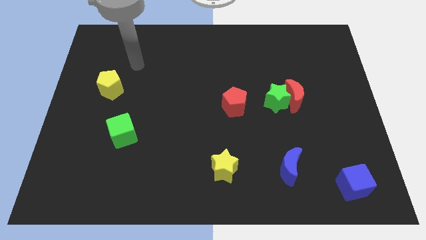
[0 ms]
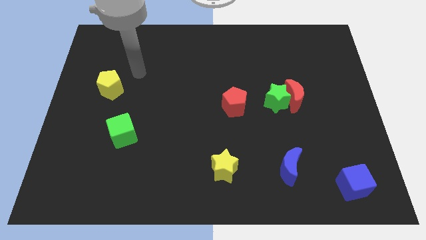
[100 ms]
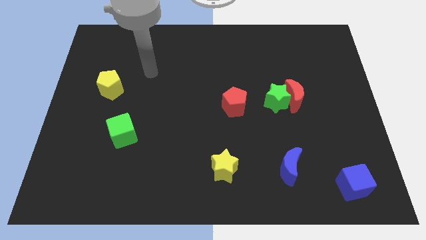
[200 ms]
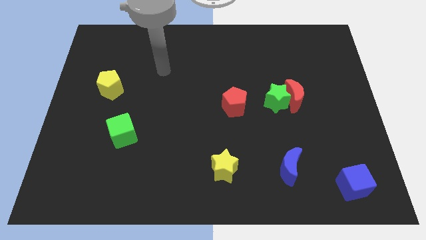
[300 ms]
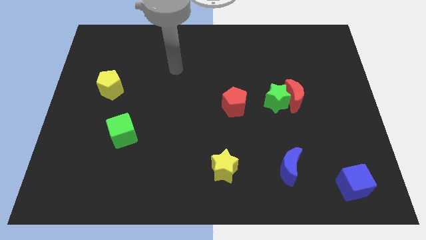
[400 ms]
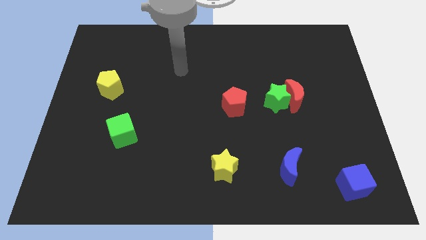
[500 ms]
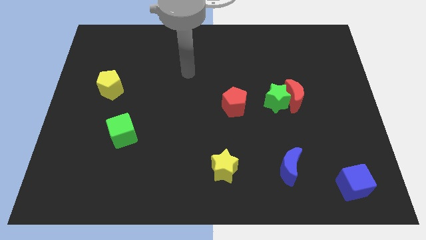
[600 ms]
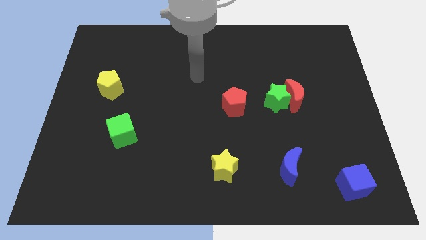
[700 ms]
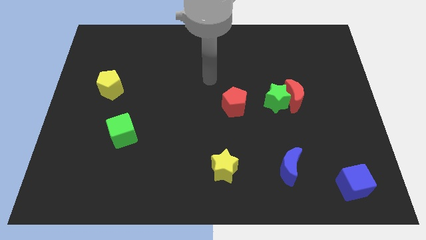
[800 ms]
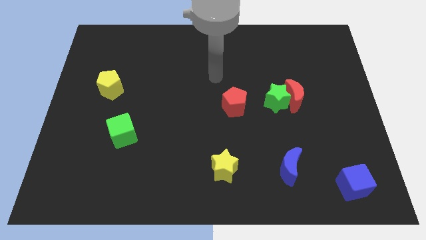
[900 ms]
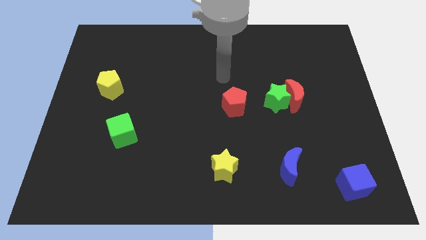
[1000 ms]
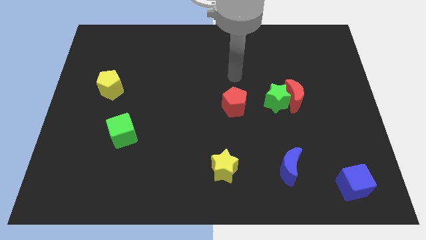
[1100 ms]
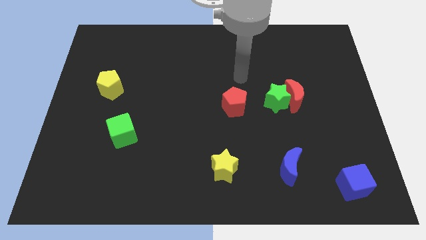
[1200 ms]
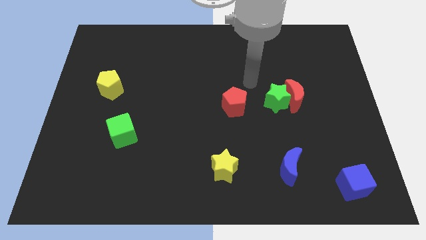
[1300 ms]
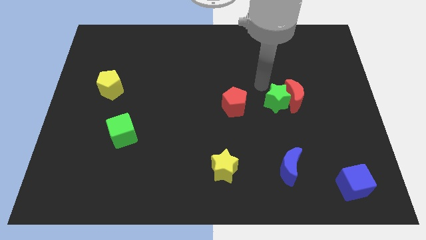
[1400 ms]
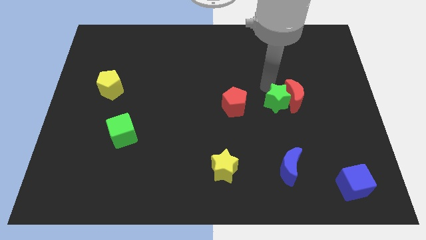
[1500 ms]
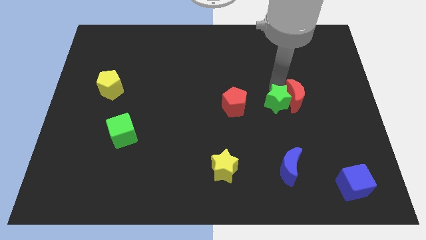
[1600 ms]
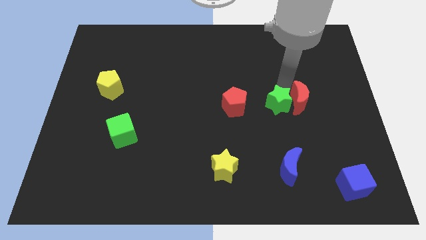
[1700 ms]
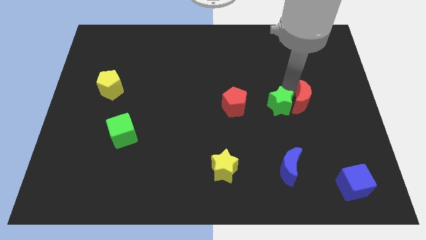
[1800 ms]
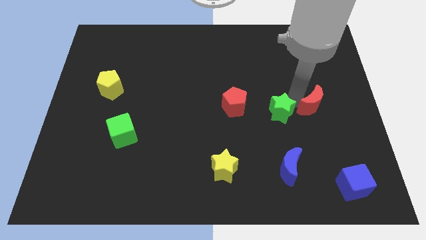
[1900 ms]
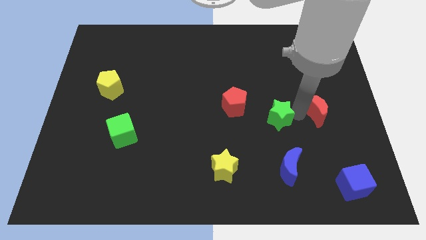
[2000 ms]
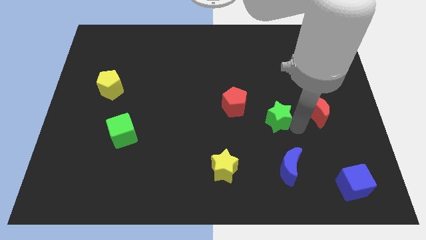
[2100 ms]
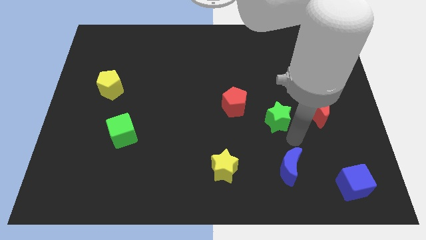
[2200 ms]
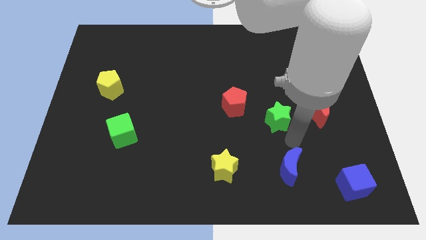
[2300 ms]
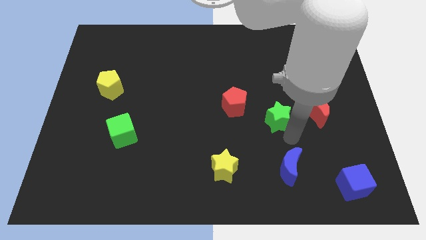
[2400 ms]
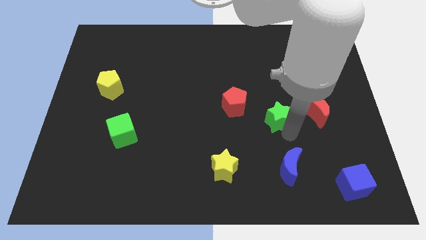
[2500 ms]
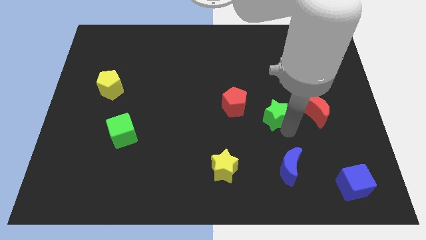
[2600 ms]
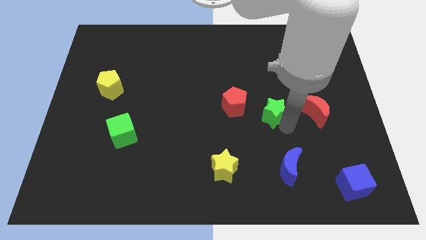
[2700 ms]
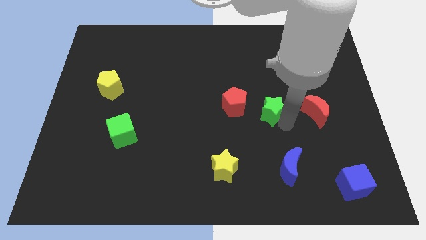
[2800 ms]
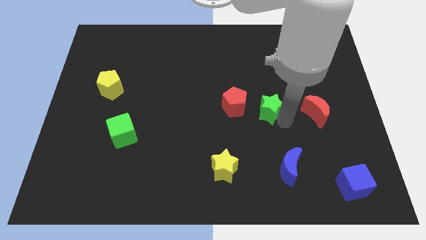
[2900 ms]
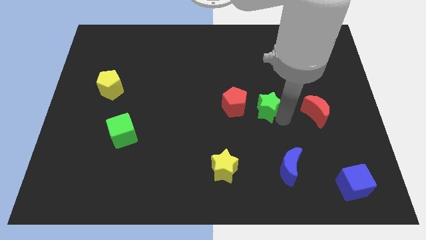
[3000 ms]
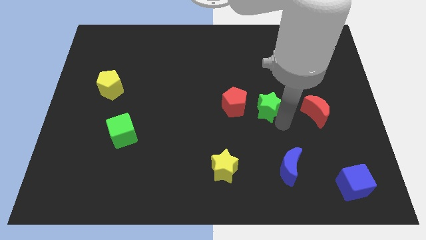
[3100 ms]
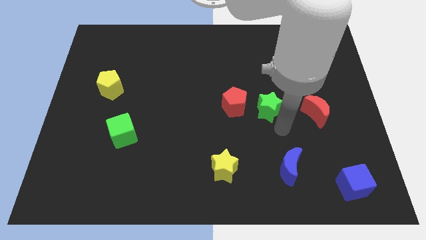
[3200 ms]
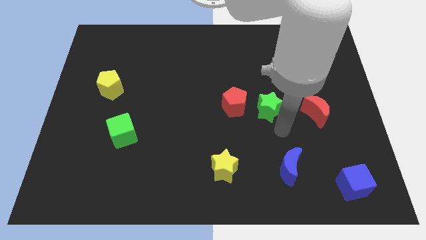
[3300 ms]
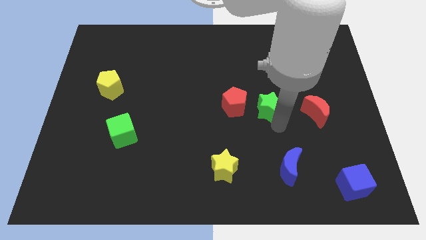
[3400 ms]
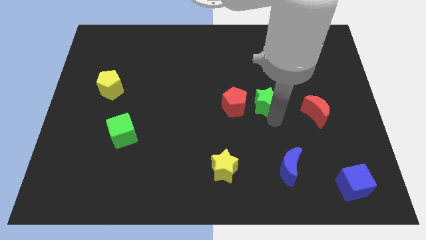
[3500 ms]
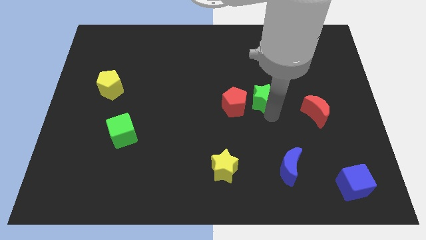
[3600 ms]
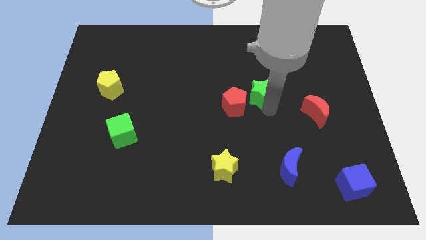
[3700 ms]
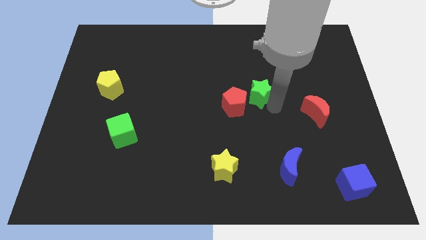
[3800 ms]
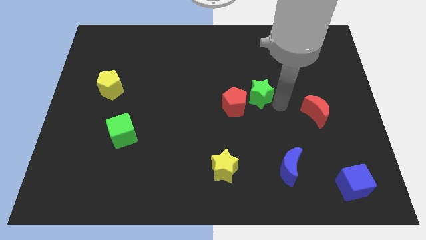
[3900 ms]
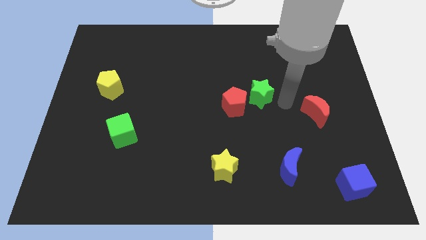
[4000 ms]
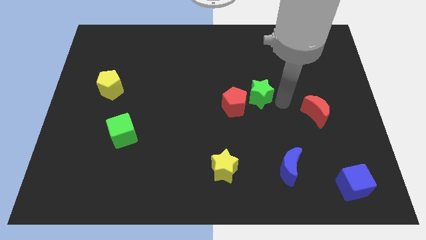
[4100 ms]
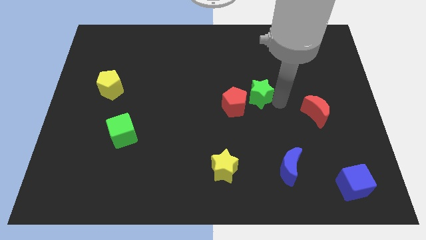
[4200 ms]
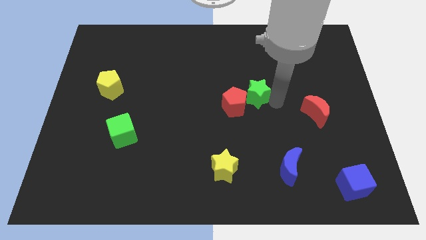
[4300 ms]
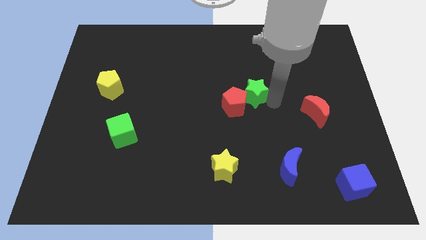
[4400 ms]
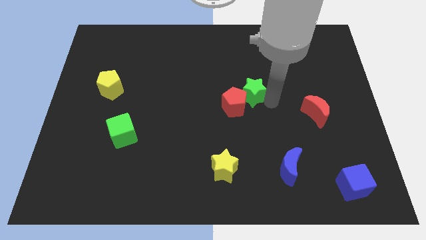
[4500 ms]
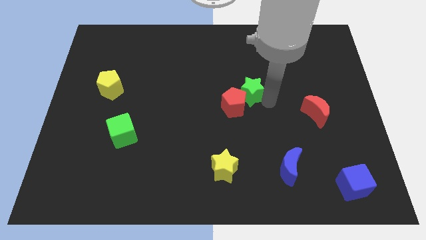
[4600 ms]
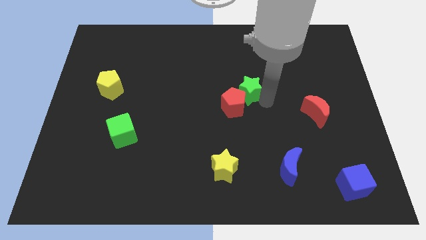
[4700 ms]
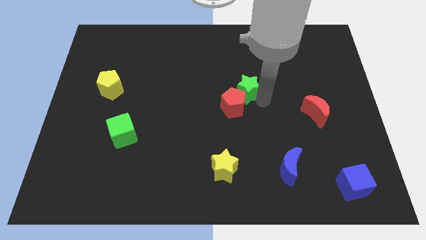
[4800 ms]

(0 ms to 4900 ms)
slide the green star left somewhat

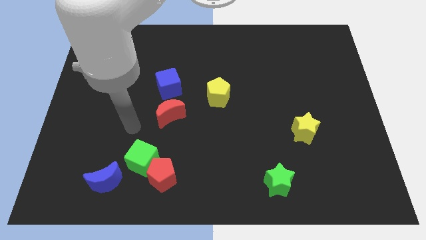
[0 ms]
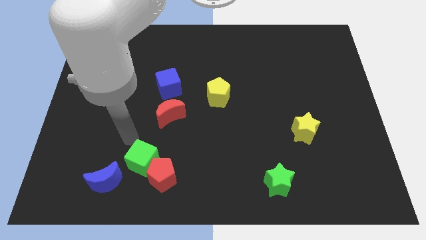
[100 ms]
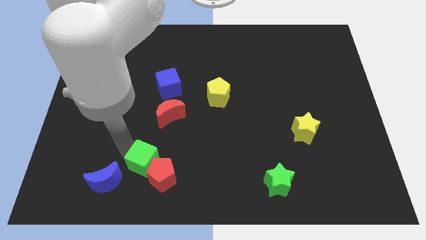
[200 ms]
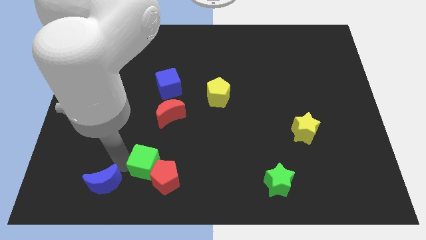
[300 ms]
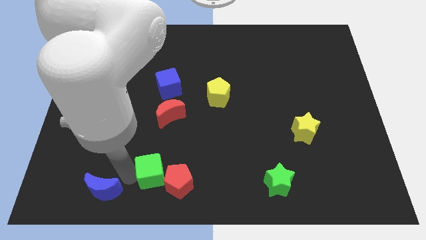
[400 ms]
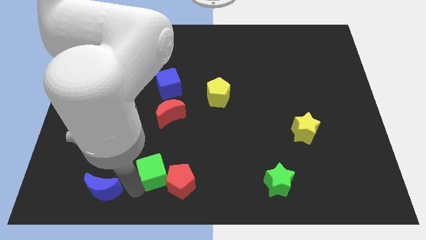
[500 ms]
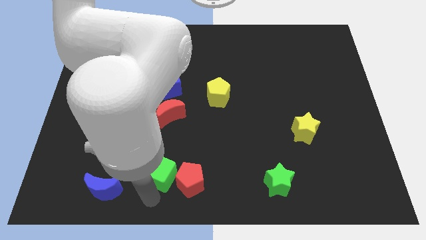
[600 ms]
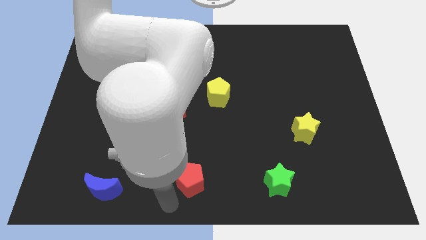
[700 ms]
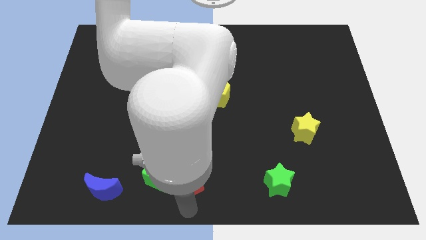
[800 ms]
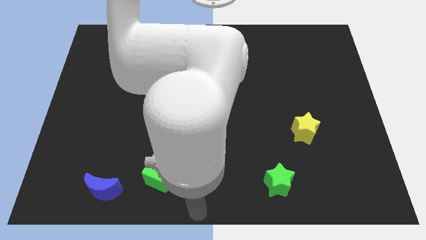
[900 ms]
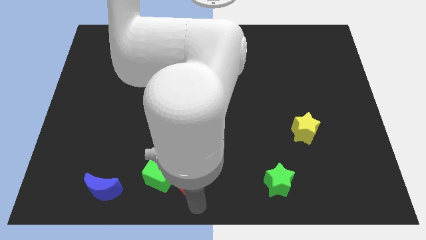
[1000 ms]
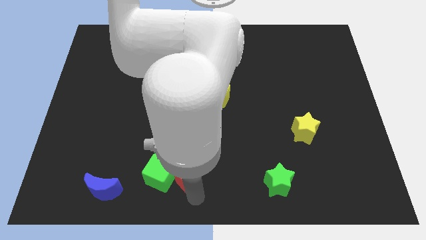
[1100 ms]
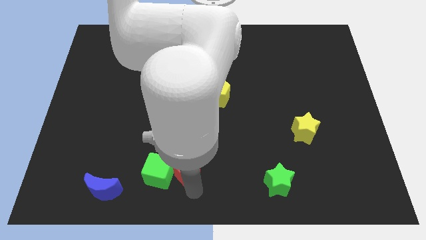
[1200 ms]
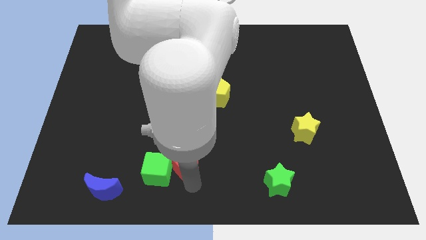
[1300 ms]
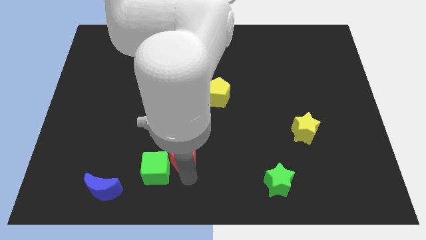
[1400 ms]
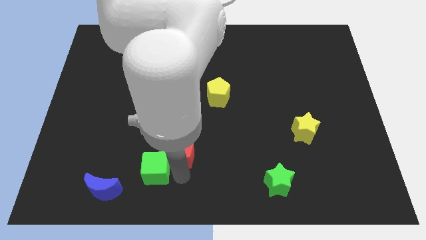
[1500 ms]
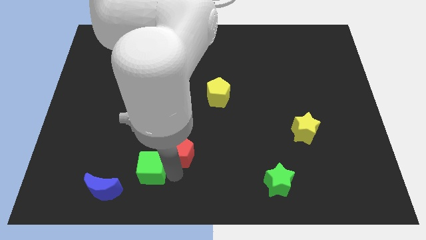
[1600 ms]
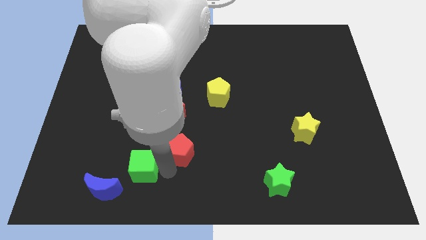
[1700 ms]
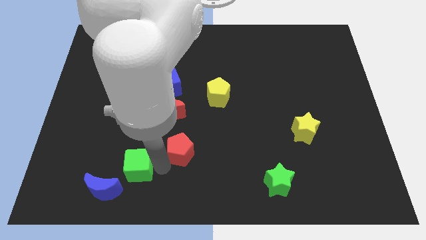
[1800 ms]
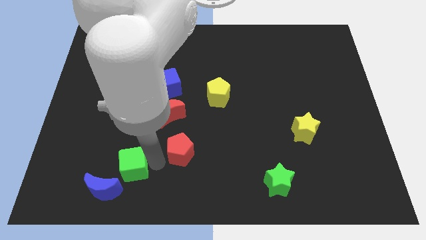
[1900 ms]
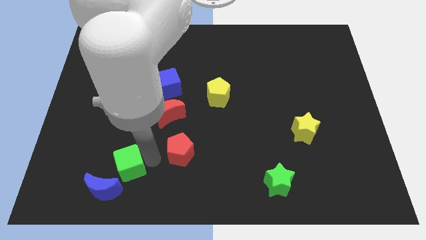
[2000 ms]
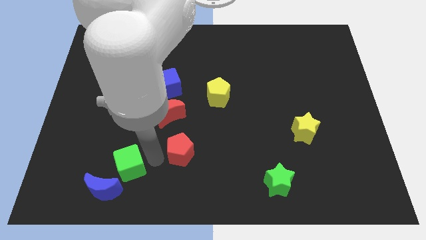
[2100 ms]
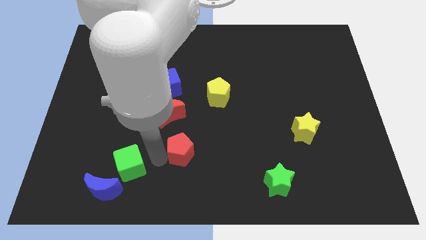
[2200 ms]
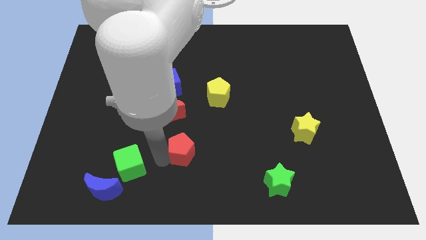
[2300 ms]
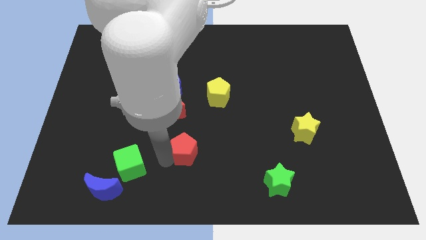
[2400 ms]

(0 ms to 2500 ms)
slightly move the red pentagon up and to the right diagonally

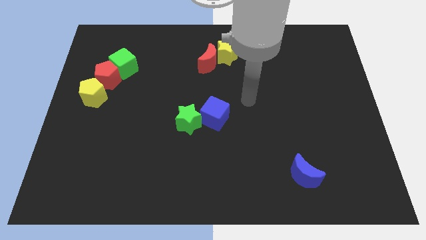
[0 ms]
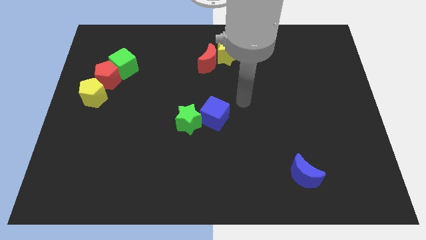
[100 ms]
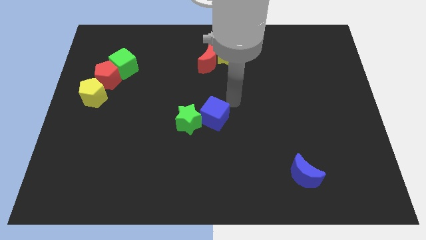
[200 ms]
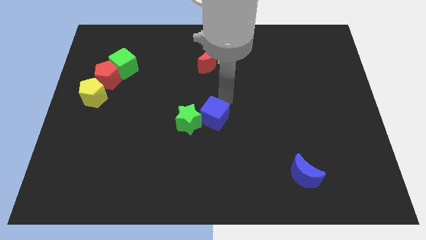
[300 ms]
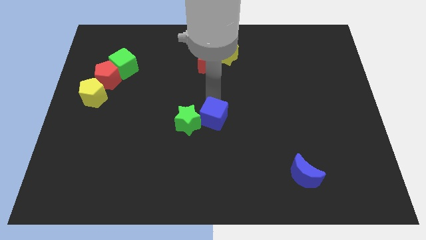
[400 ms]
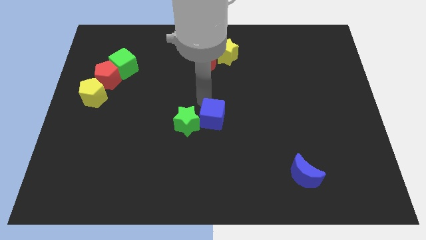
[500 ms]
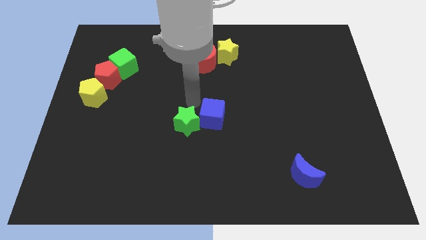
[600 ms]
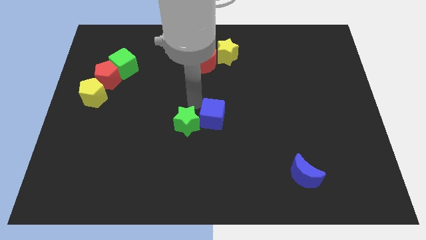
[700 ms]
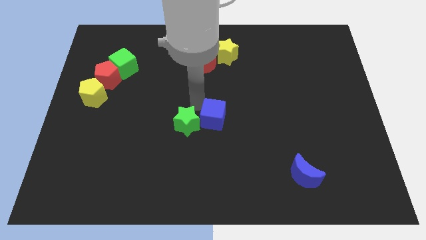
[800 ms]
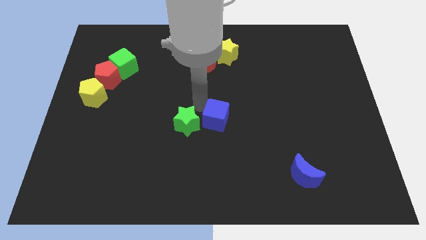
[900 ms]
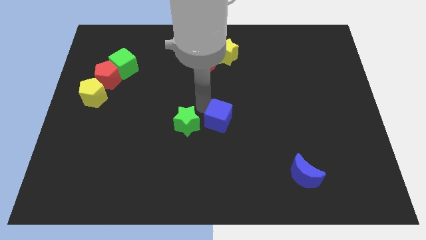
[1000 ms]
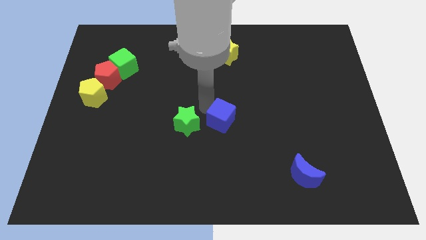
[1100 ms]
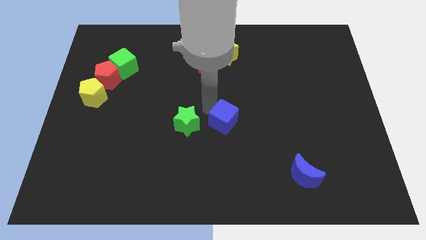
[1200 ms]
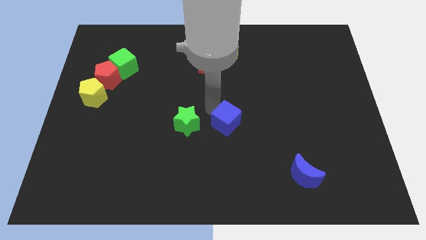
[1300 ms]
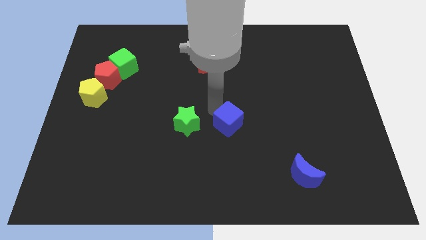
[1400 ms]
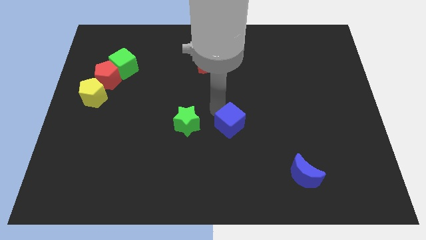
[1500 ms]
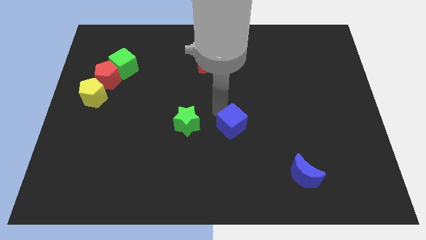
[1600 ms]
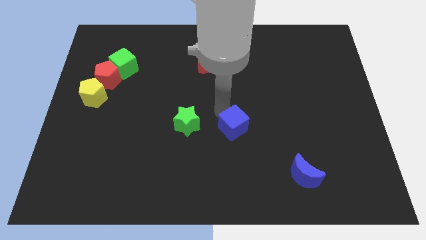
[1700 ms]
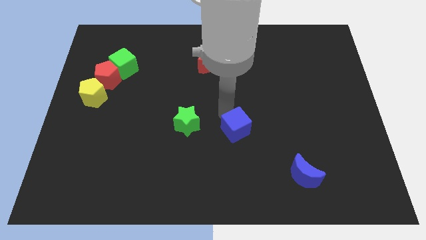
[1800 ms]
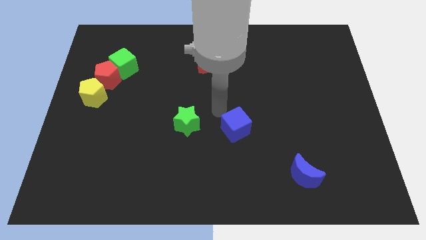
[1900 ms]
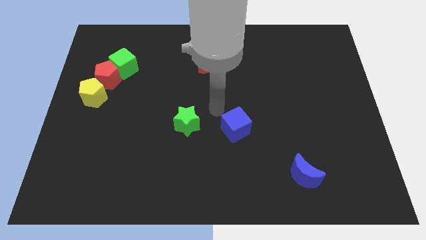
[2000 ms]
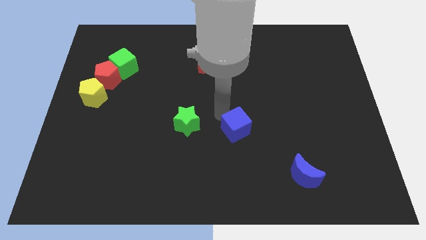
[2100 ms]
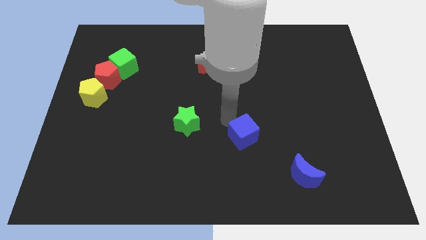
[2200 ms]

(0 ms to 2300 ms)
slide the blue cube a little diagonally down and right
